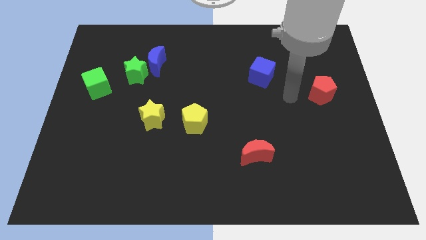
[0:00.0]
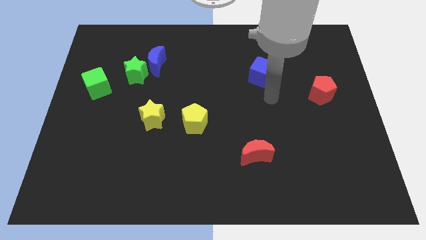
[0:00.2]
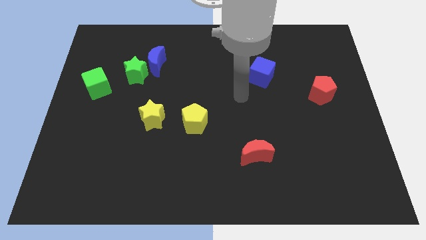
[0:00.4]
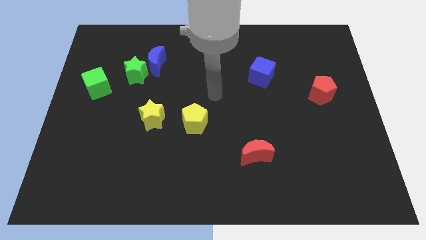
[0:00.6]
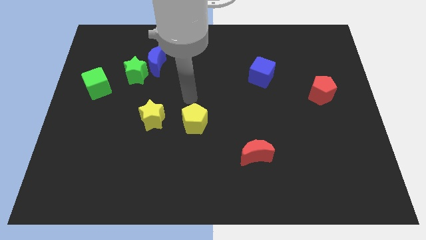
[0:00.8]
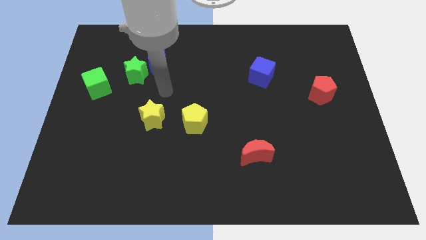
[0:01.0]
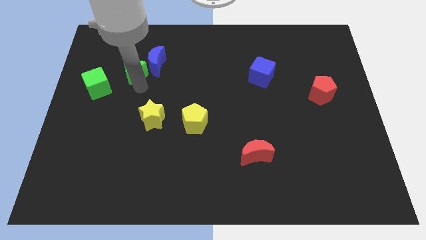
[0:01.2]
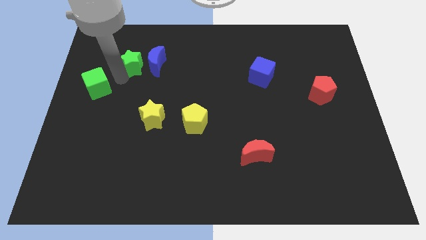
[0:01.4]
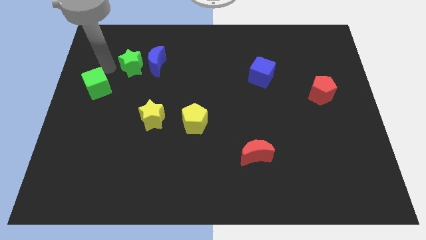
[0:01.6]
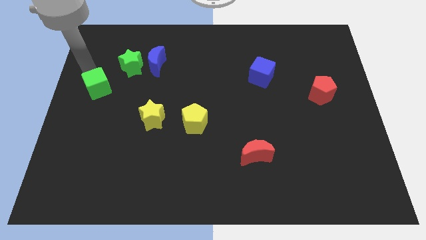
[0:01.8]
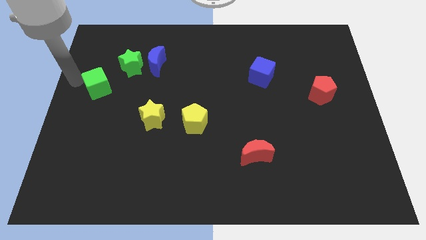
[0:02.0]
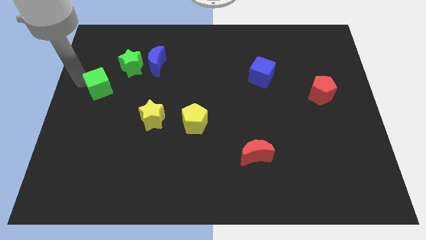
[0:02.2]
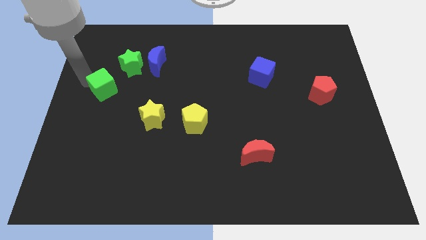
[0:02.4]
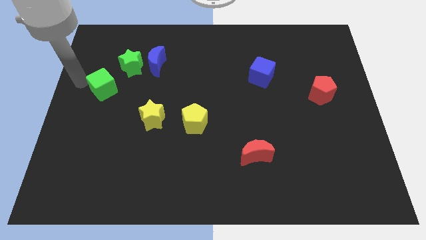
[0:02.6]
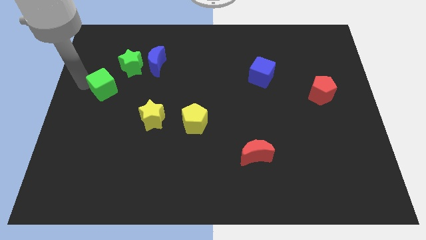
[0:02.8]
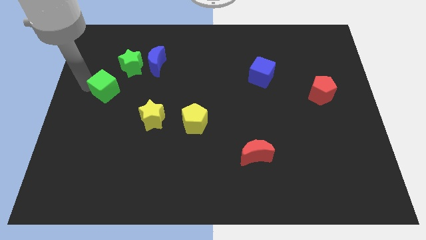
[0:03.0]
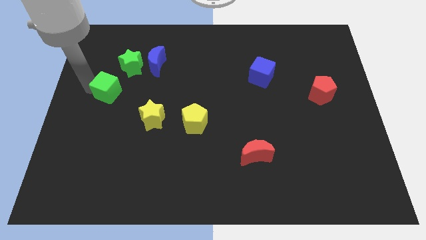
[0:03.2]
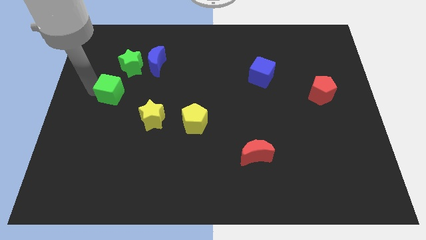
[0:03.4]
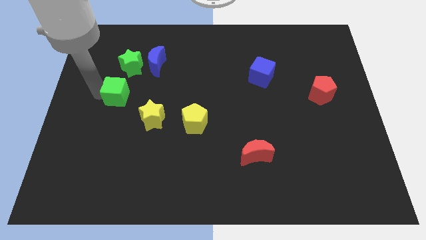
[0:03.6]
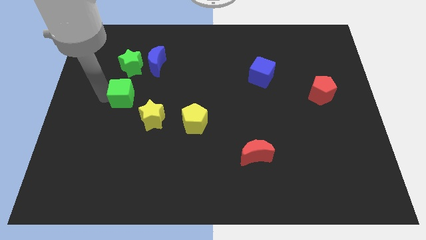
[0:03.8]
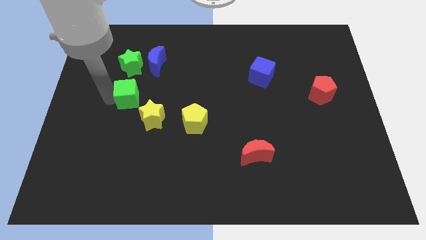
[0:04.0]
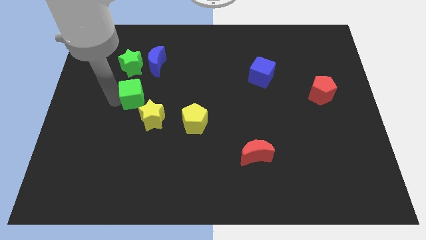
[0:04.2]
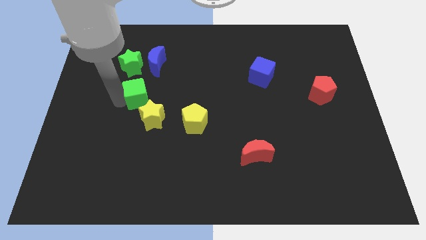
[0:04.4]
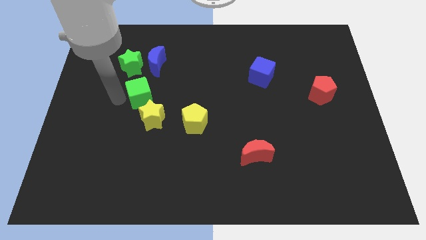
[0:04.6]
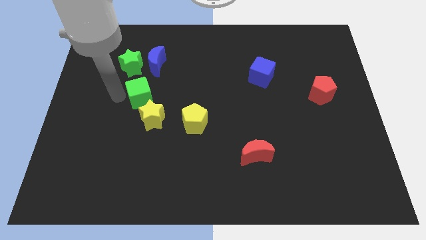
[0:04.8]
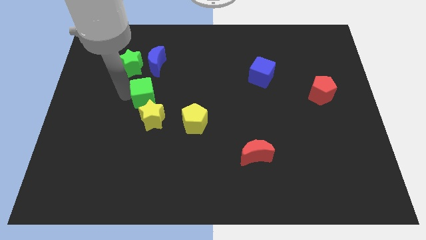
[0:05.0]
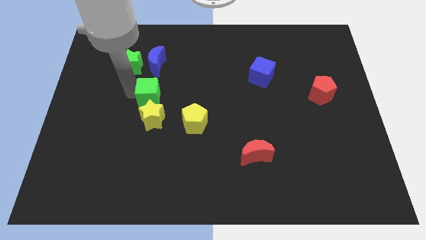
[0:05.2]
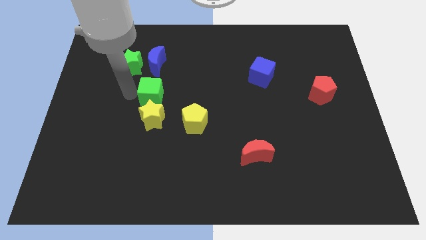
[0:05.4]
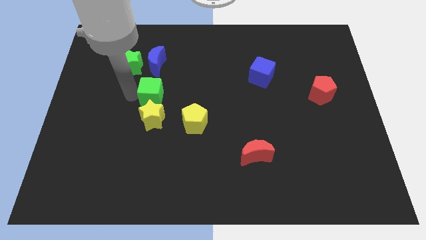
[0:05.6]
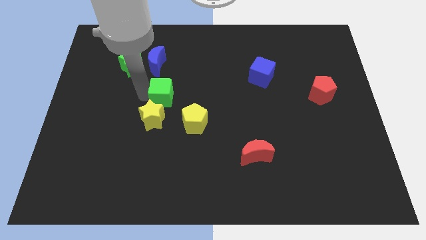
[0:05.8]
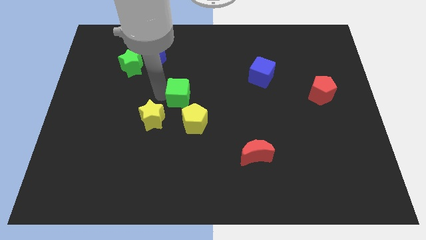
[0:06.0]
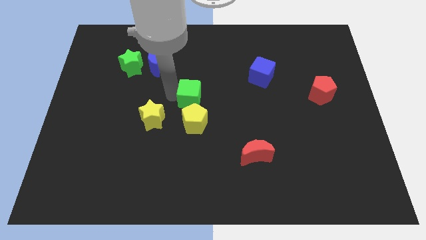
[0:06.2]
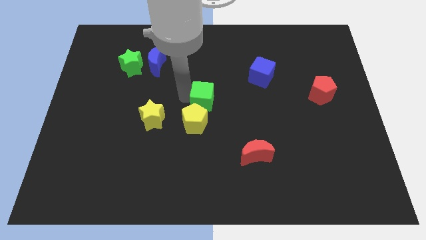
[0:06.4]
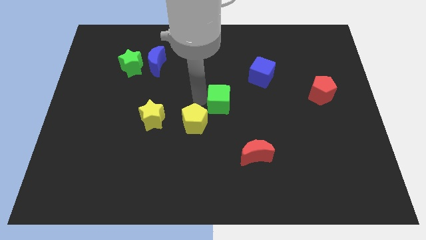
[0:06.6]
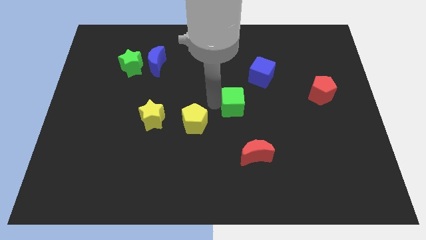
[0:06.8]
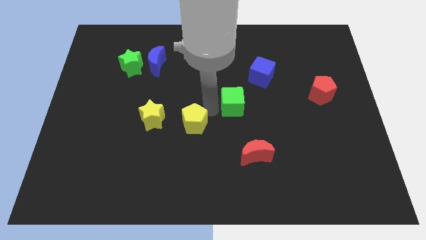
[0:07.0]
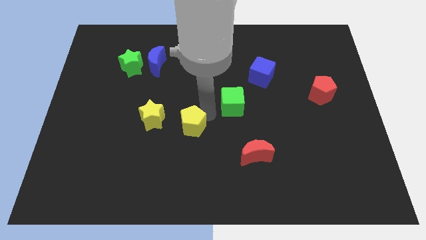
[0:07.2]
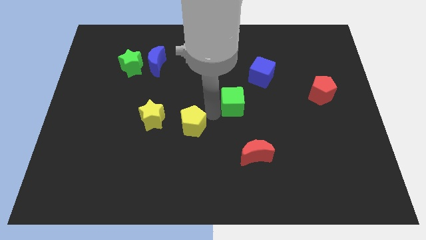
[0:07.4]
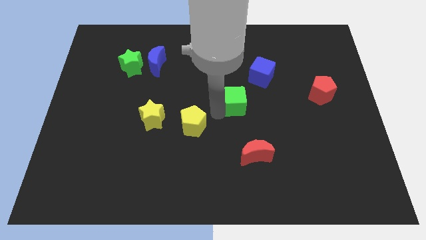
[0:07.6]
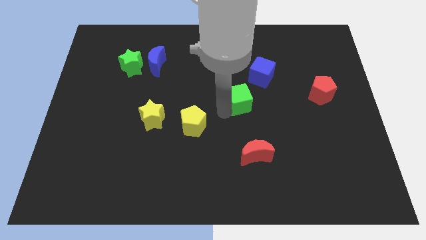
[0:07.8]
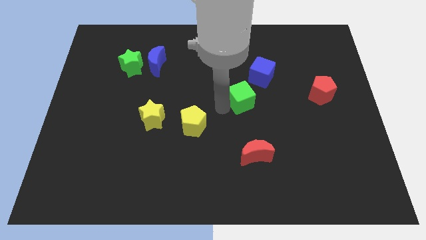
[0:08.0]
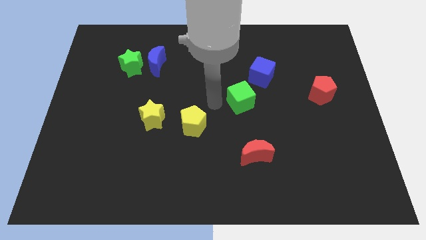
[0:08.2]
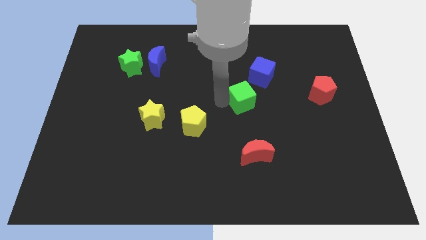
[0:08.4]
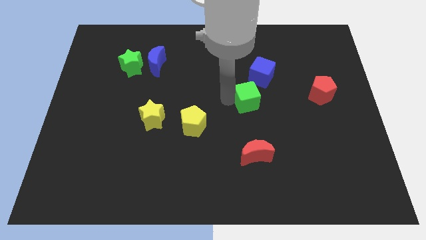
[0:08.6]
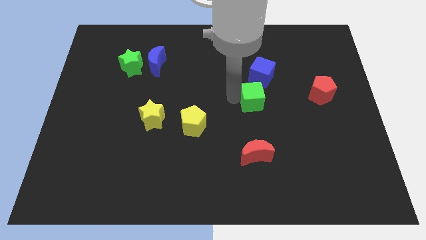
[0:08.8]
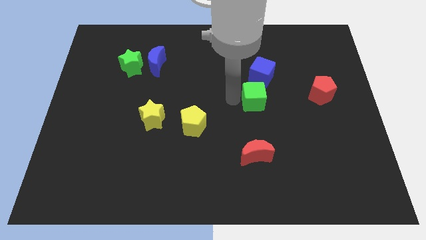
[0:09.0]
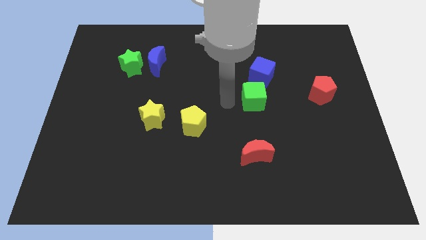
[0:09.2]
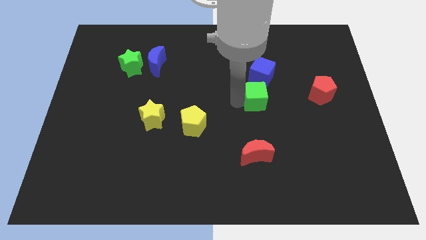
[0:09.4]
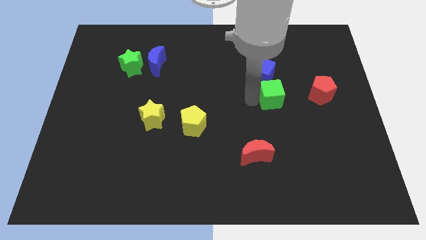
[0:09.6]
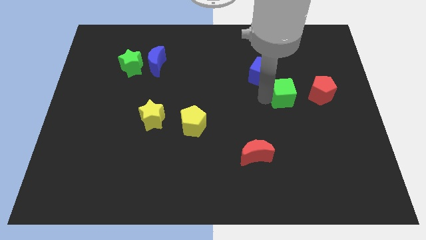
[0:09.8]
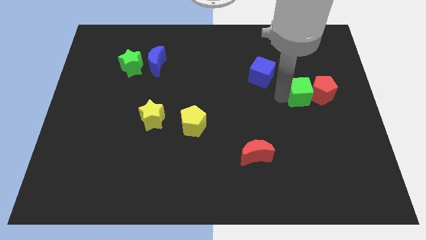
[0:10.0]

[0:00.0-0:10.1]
put the green cube to the red pentagon

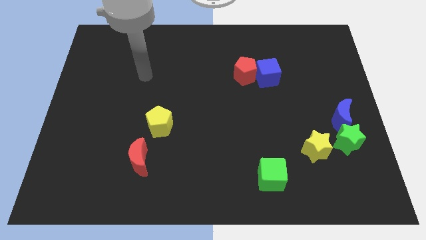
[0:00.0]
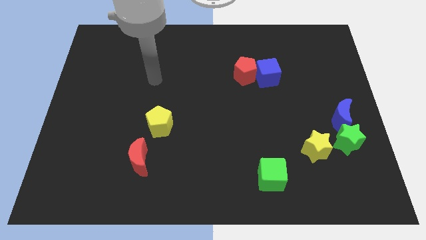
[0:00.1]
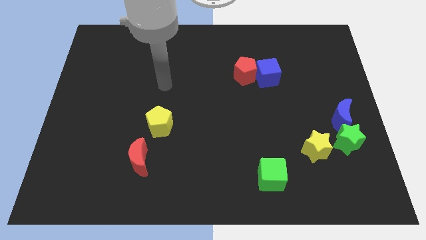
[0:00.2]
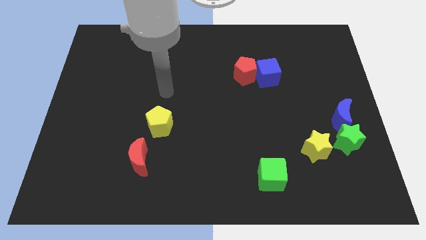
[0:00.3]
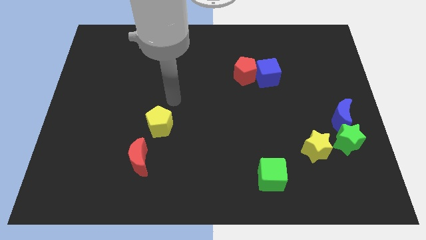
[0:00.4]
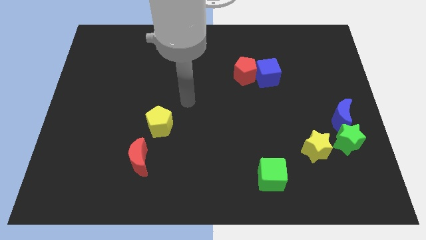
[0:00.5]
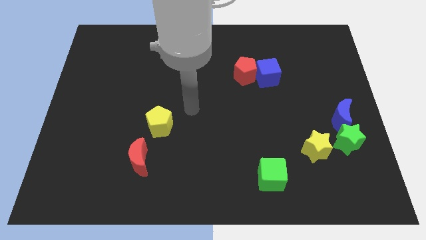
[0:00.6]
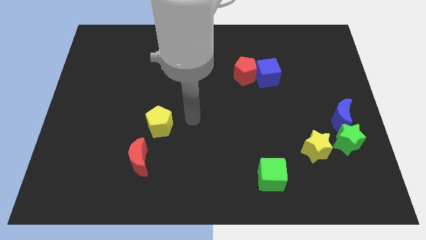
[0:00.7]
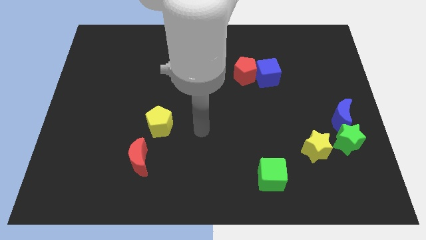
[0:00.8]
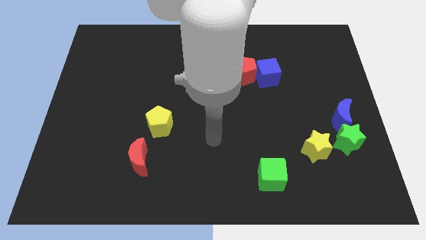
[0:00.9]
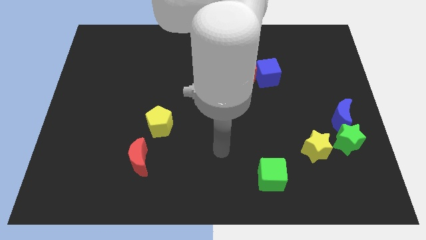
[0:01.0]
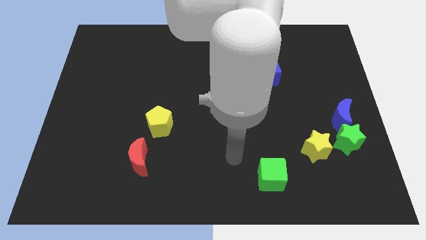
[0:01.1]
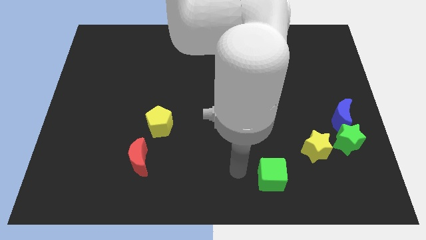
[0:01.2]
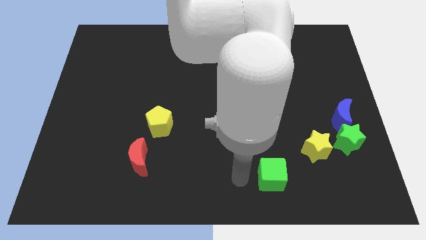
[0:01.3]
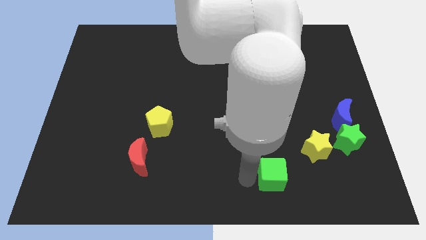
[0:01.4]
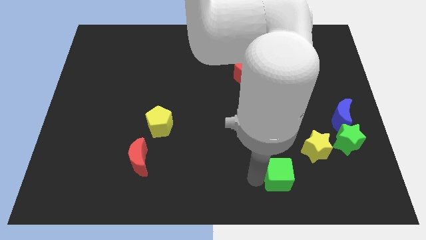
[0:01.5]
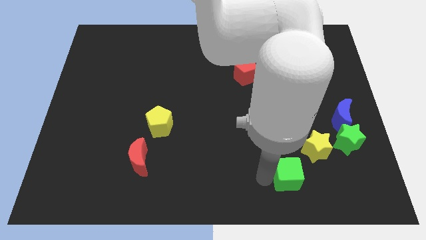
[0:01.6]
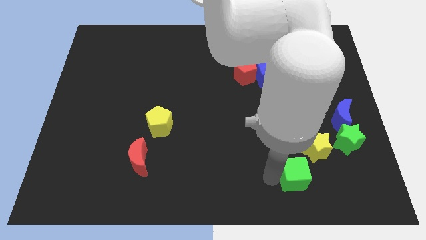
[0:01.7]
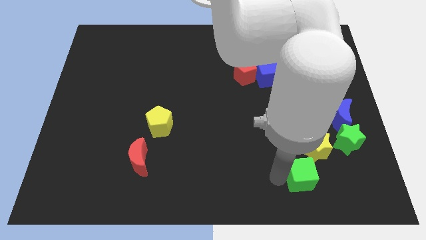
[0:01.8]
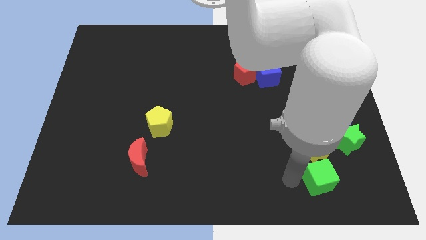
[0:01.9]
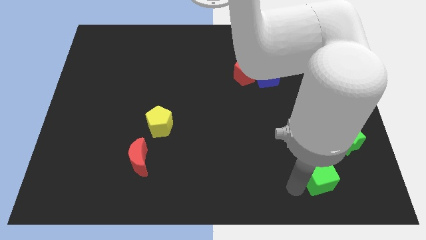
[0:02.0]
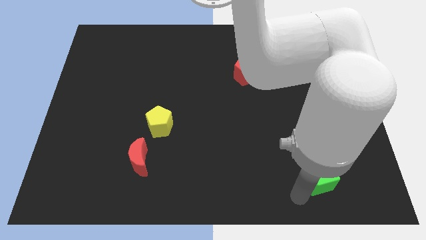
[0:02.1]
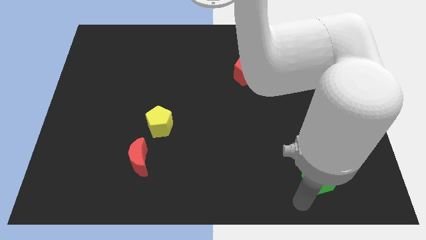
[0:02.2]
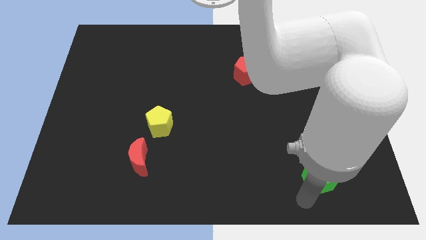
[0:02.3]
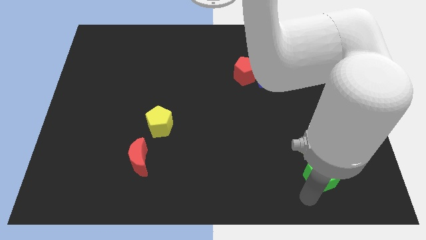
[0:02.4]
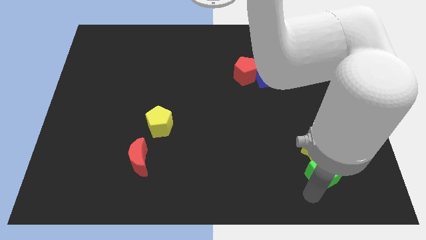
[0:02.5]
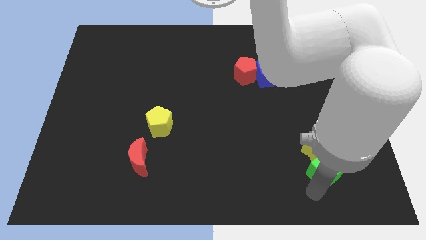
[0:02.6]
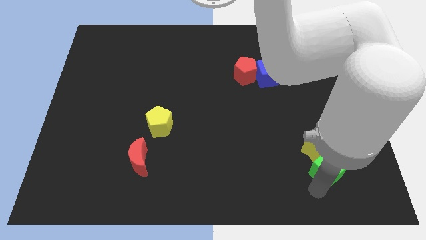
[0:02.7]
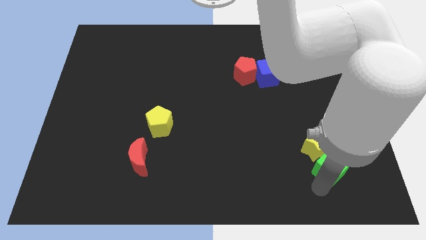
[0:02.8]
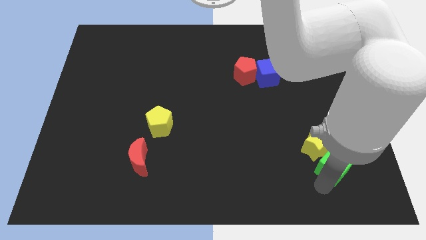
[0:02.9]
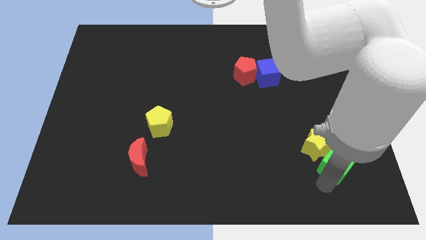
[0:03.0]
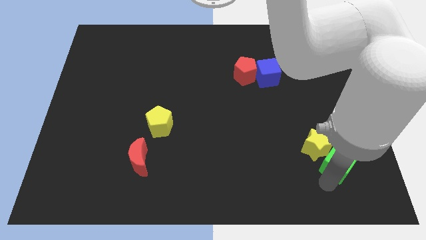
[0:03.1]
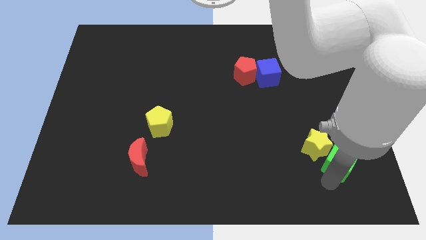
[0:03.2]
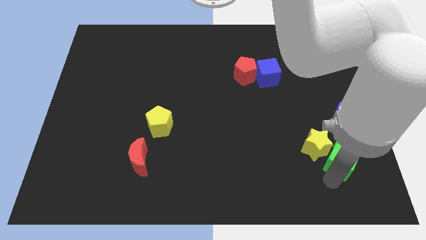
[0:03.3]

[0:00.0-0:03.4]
slide the green cube next to the green star
